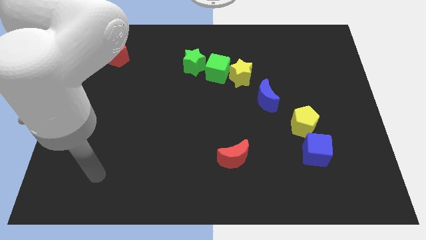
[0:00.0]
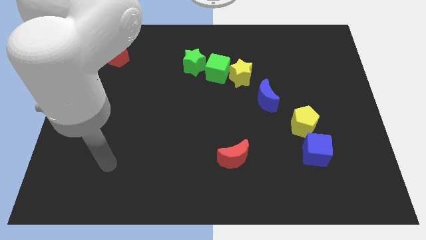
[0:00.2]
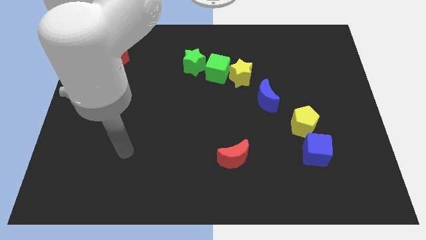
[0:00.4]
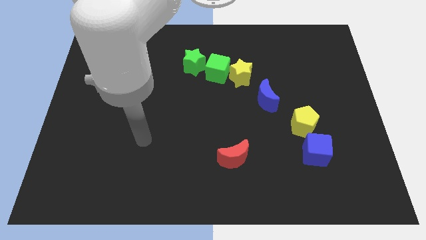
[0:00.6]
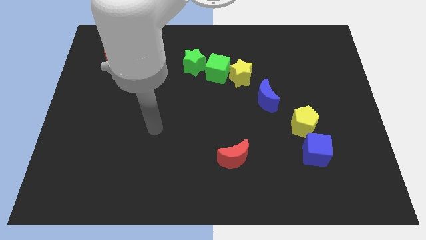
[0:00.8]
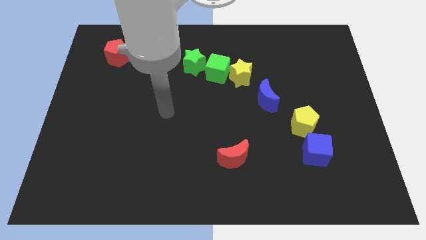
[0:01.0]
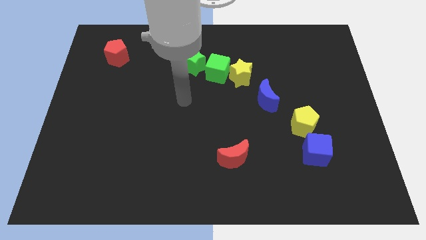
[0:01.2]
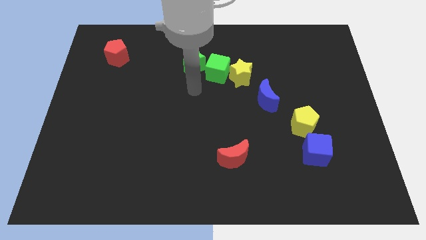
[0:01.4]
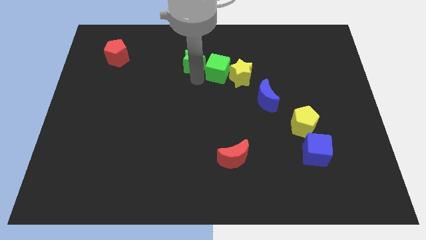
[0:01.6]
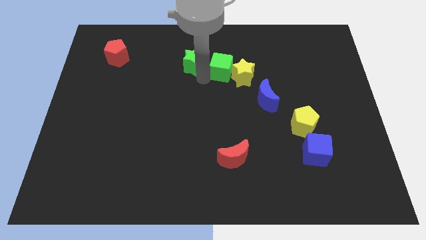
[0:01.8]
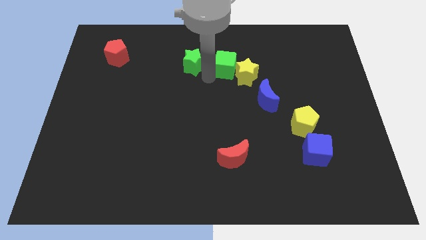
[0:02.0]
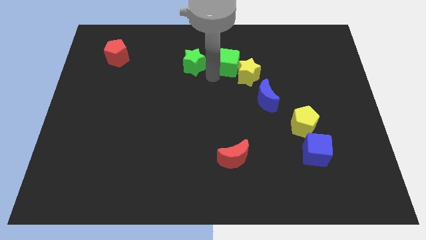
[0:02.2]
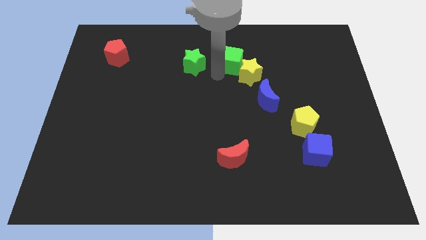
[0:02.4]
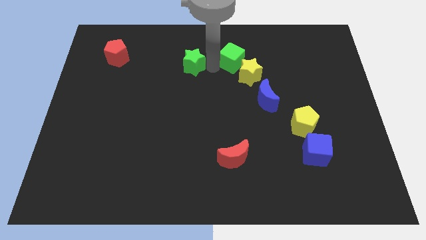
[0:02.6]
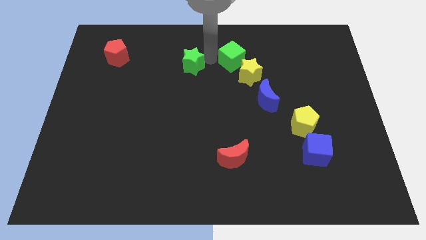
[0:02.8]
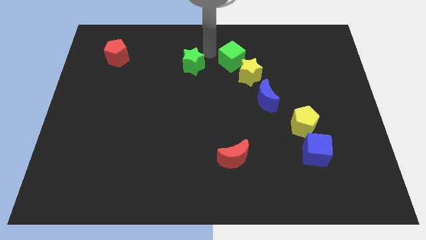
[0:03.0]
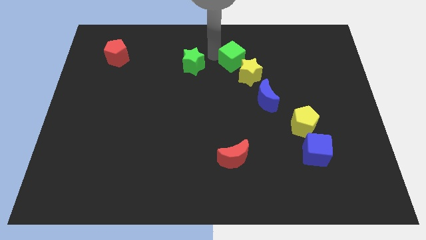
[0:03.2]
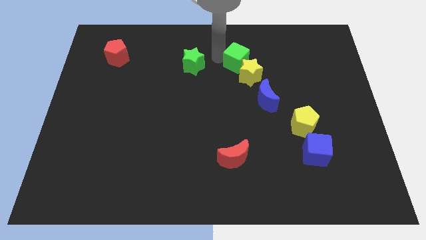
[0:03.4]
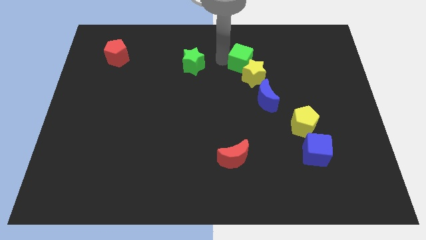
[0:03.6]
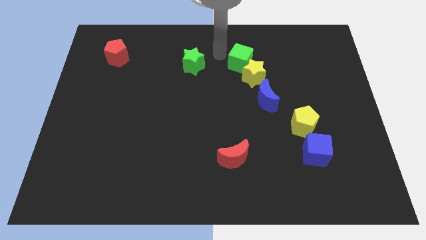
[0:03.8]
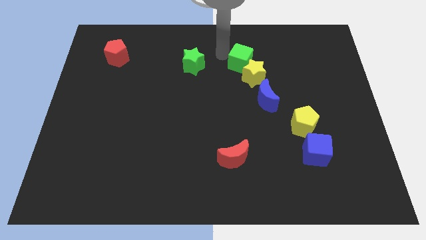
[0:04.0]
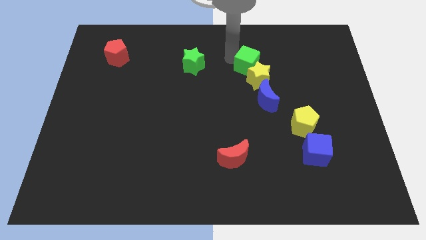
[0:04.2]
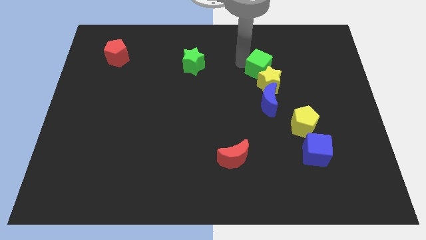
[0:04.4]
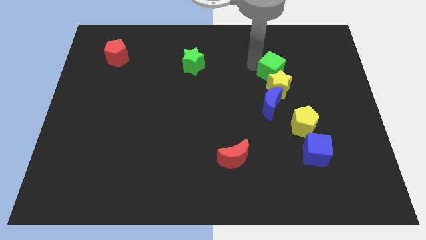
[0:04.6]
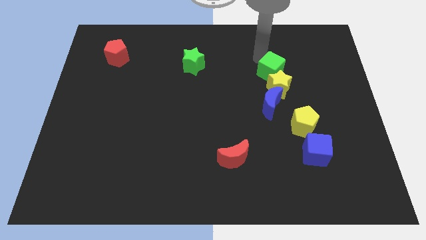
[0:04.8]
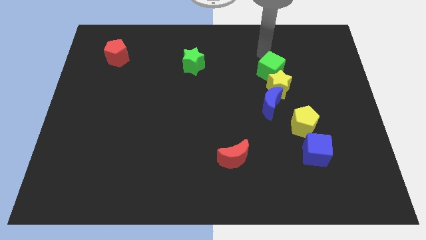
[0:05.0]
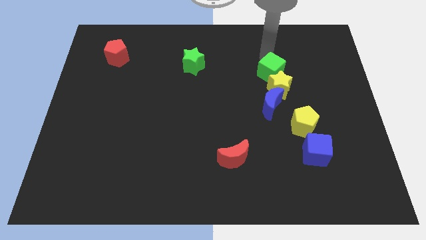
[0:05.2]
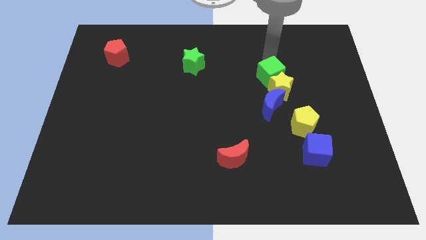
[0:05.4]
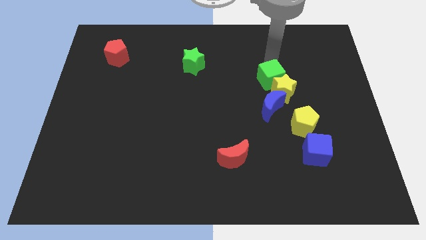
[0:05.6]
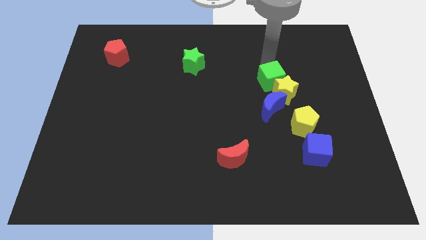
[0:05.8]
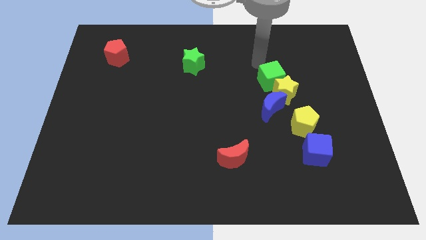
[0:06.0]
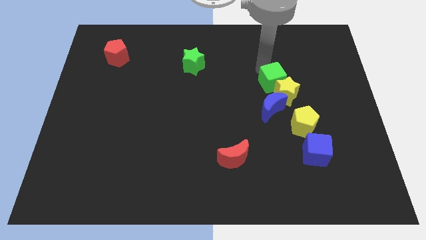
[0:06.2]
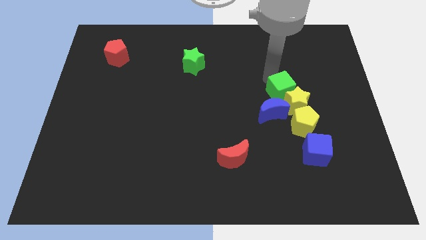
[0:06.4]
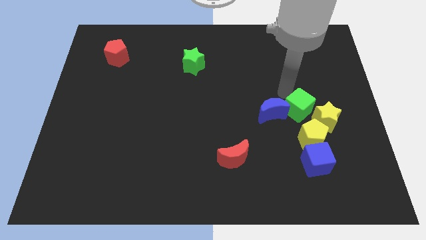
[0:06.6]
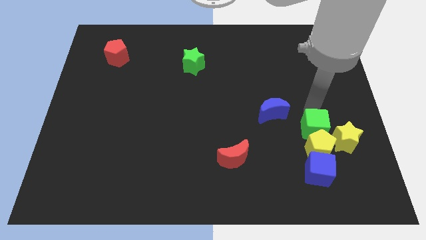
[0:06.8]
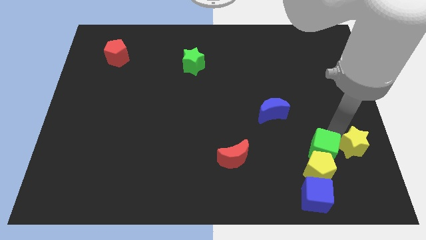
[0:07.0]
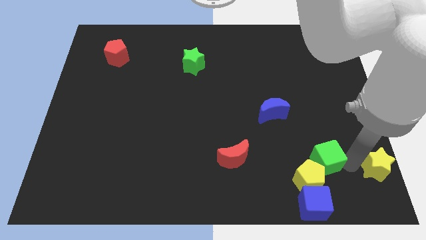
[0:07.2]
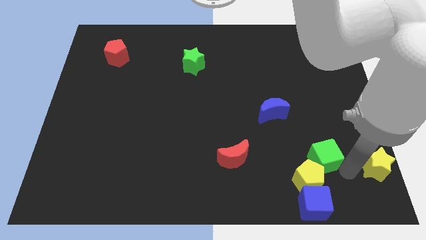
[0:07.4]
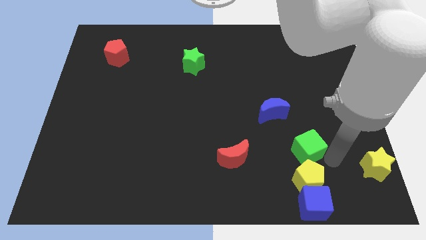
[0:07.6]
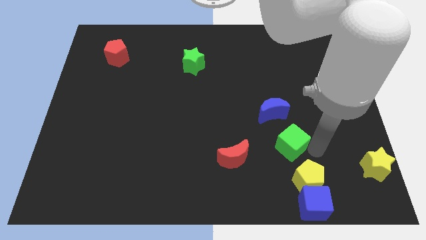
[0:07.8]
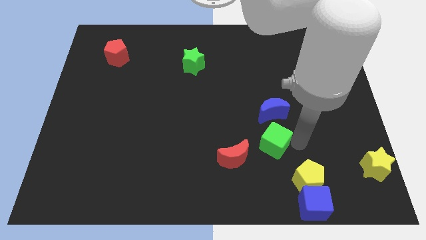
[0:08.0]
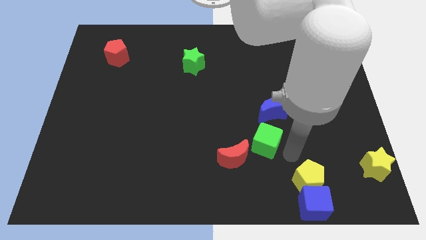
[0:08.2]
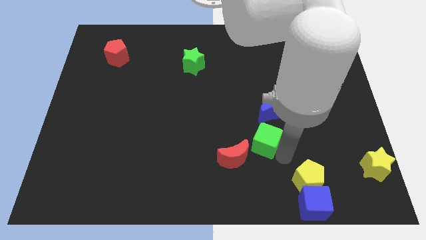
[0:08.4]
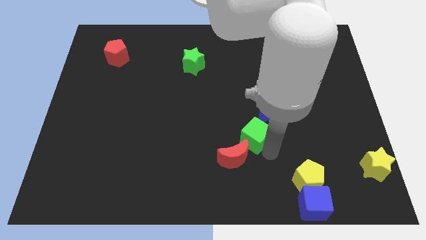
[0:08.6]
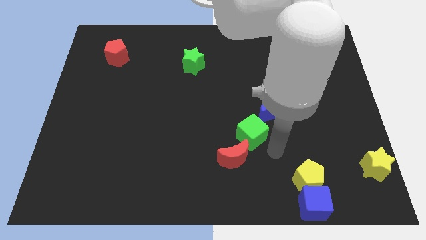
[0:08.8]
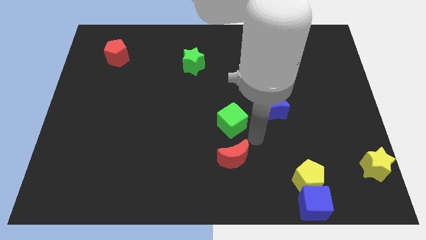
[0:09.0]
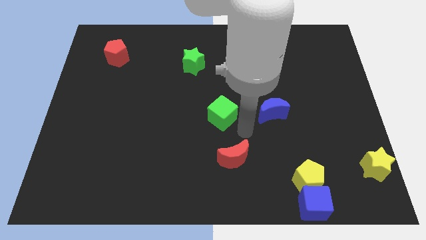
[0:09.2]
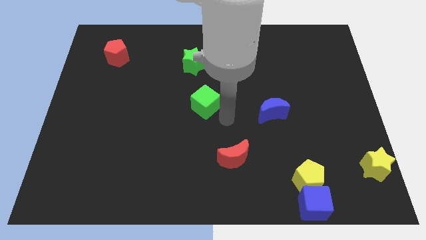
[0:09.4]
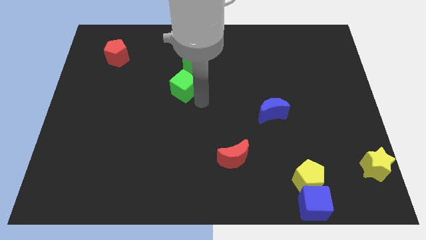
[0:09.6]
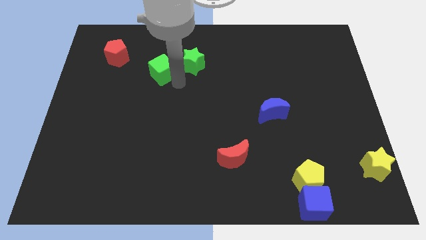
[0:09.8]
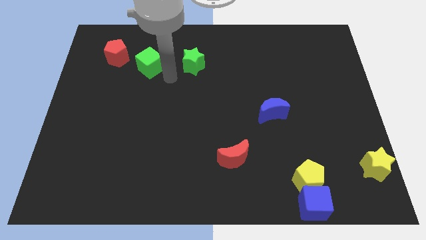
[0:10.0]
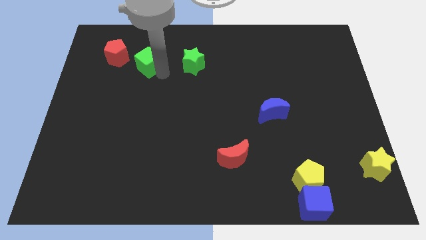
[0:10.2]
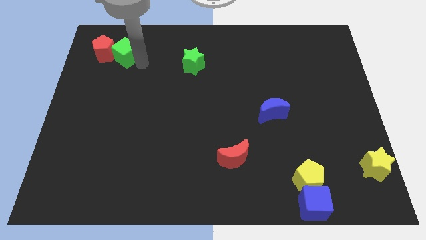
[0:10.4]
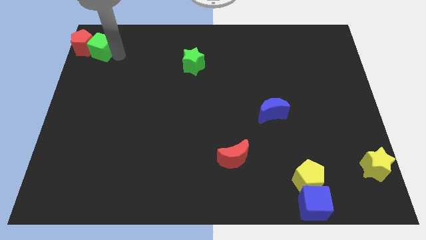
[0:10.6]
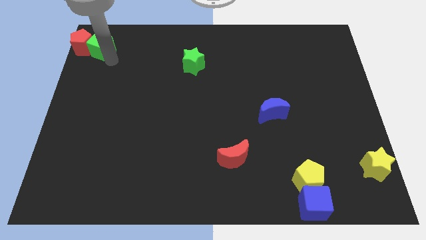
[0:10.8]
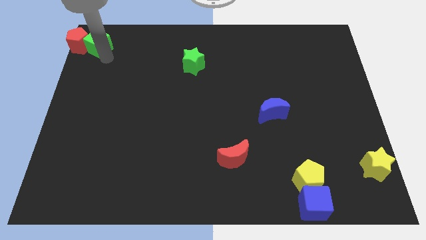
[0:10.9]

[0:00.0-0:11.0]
move the green cube to the upper left corner
